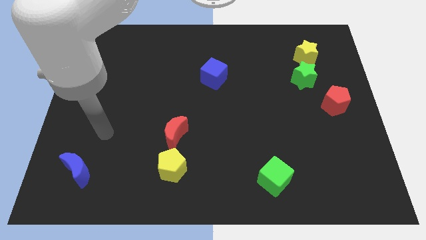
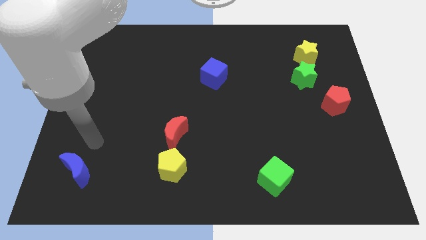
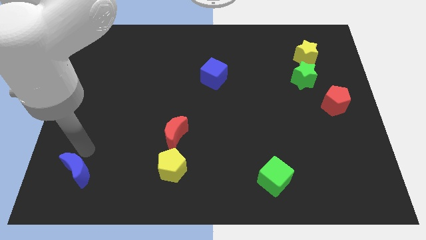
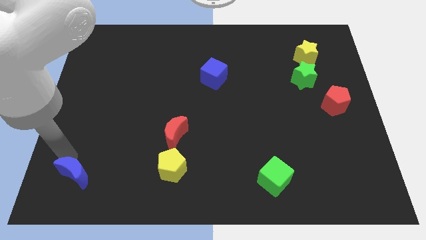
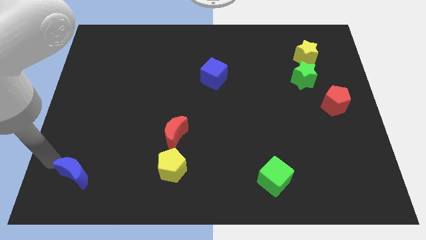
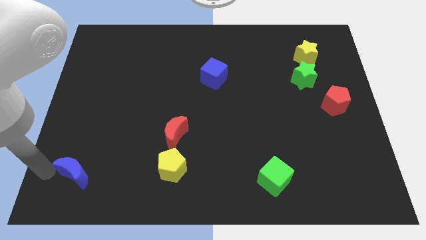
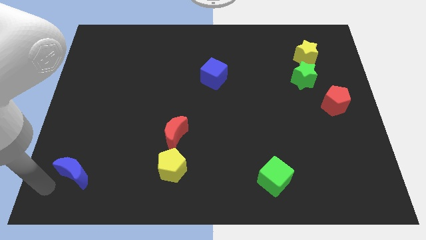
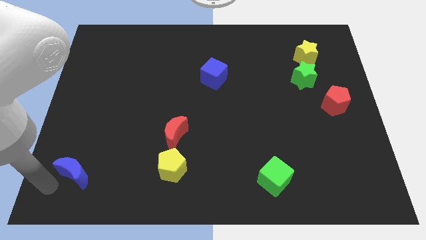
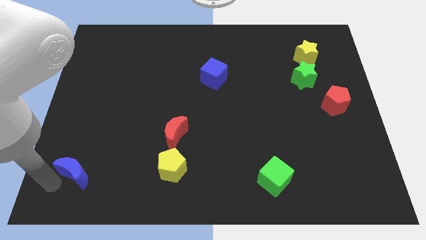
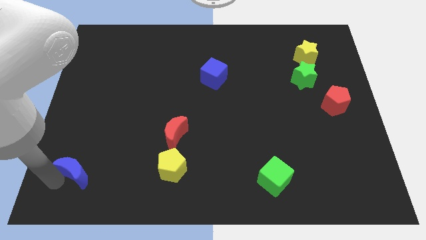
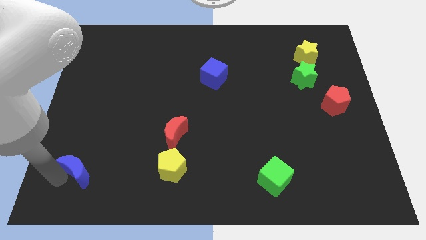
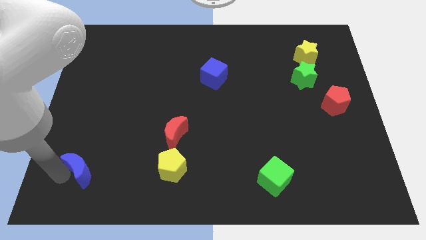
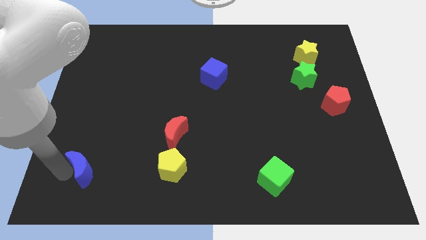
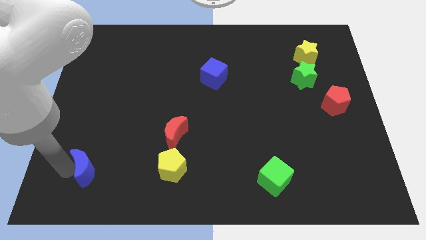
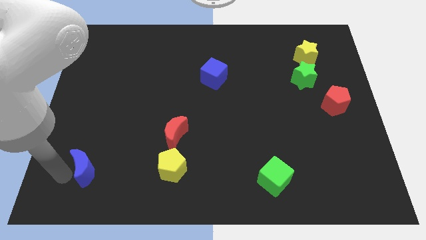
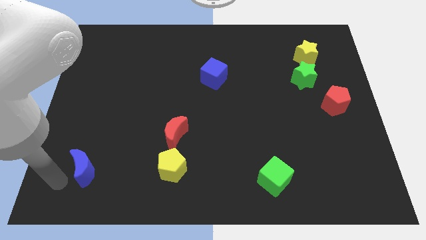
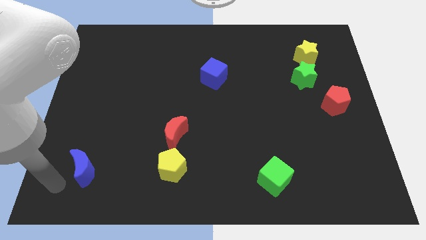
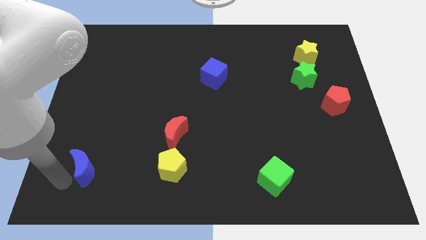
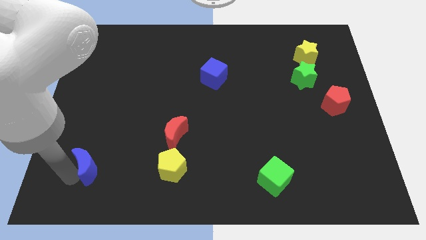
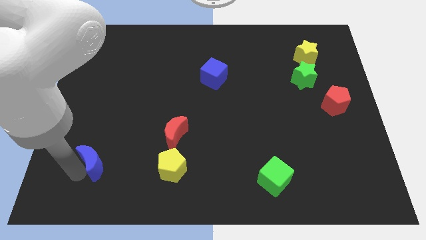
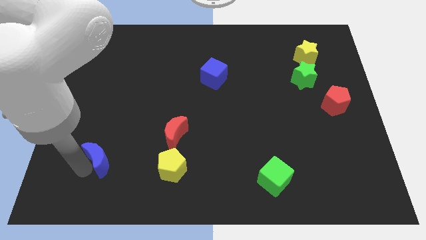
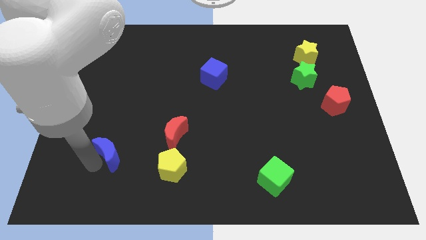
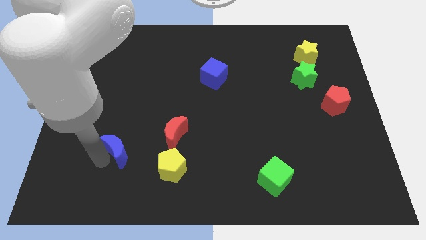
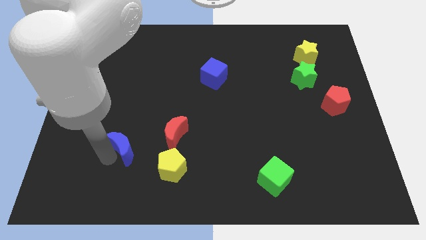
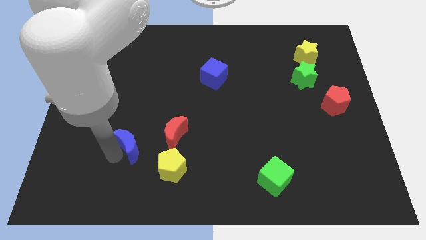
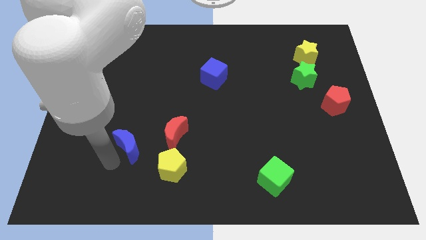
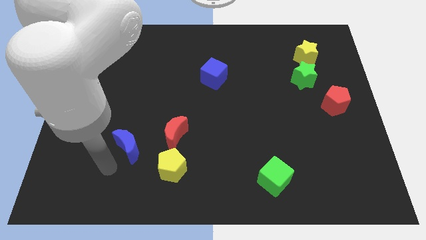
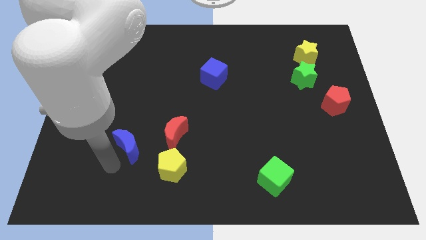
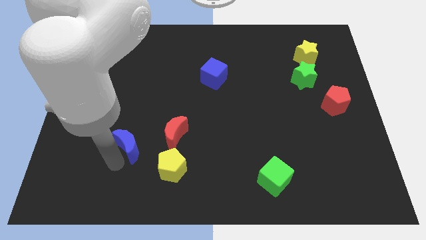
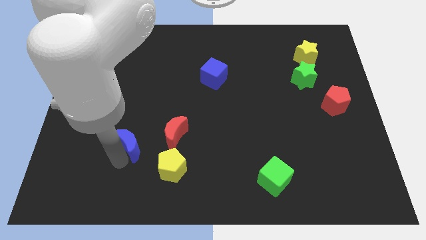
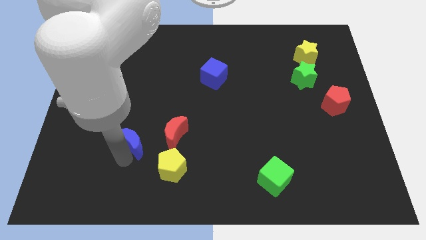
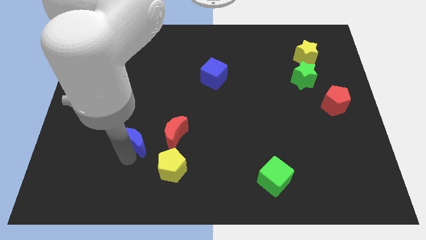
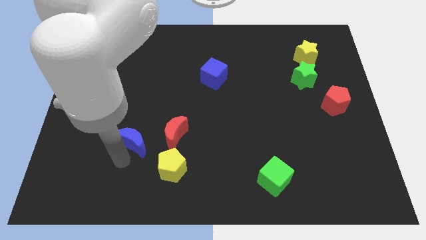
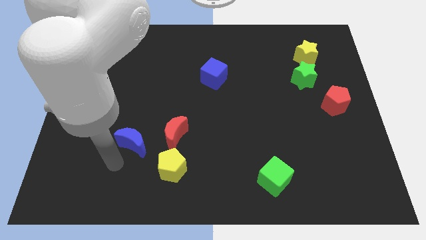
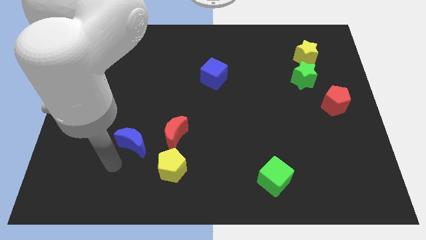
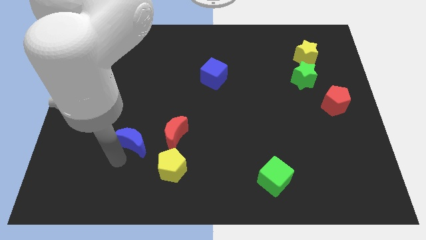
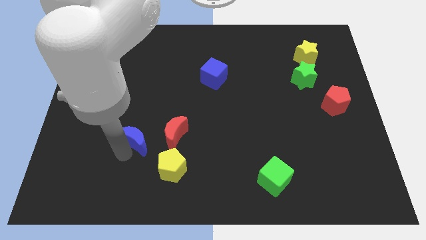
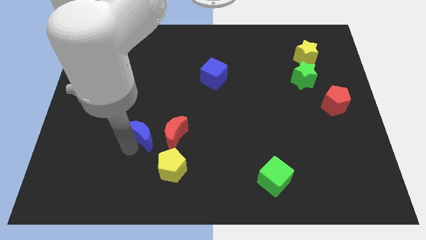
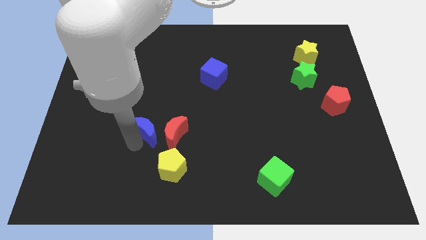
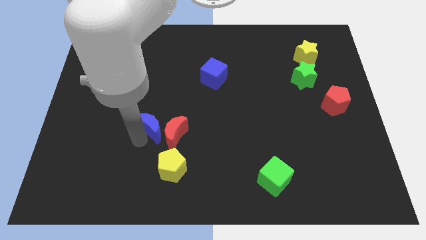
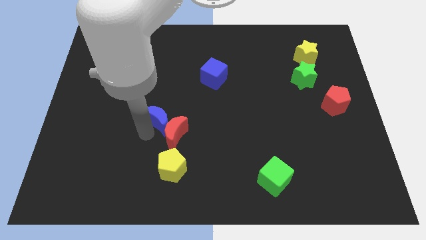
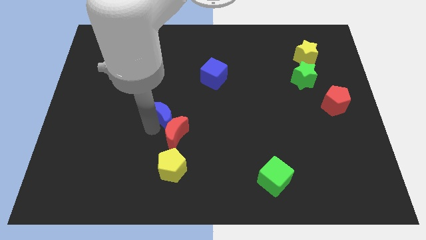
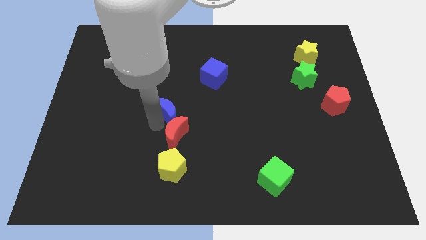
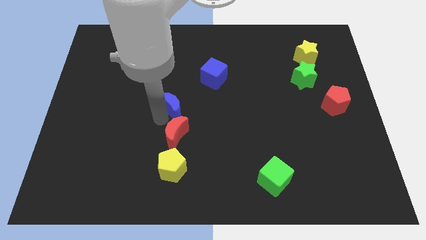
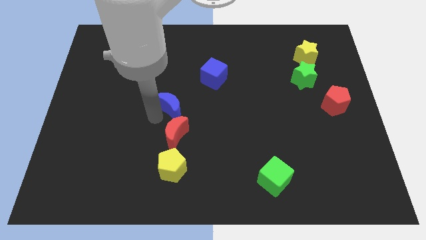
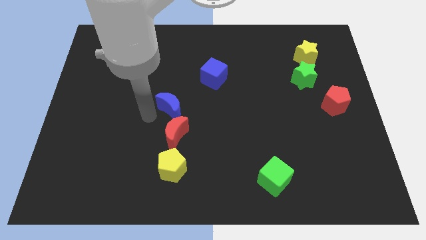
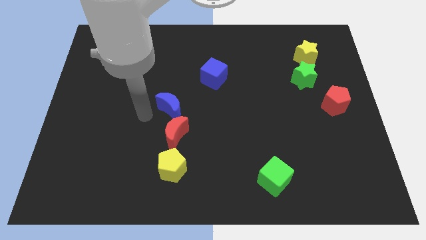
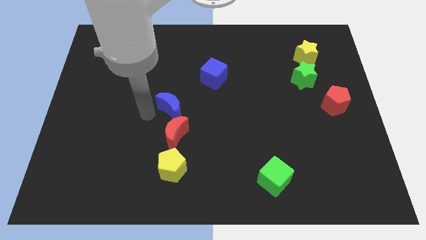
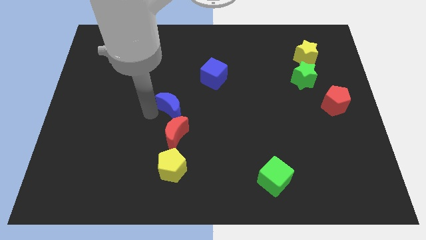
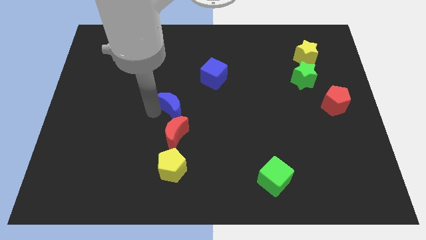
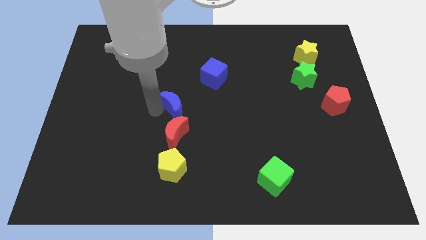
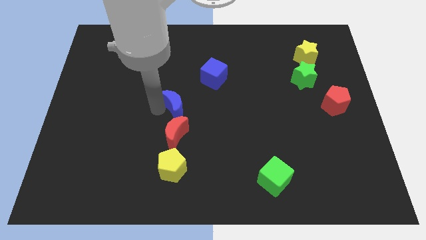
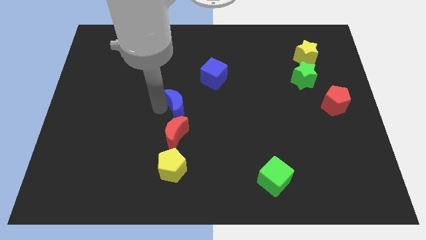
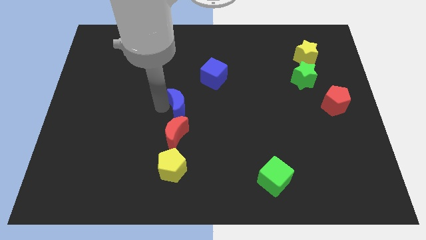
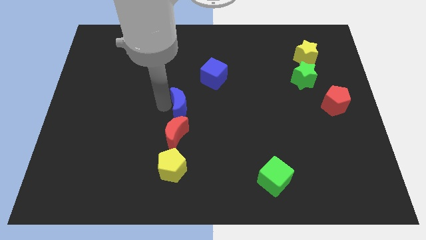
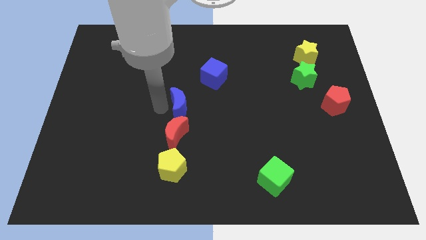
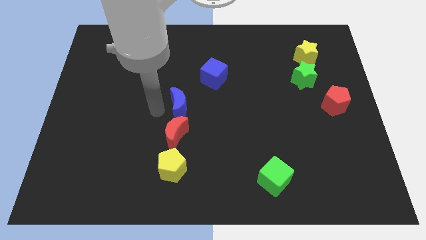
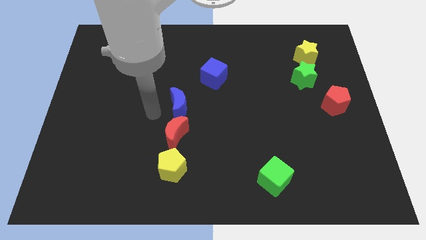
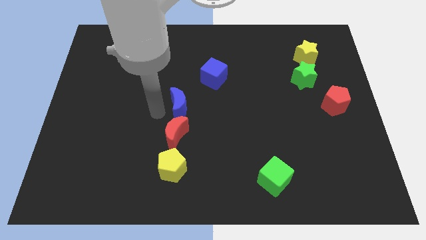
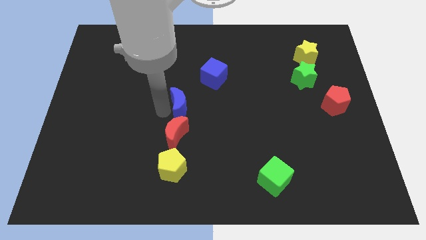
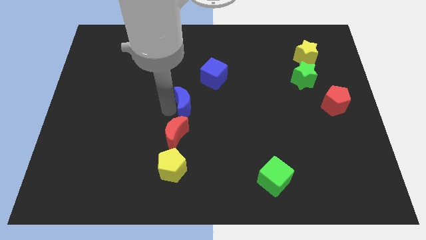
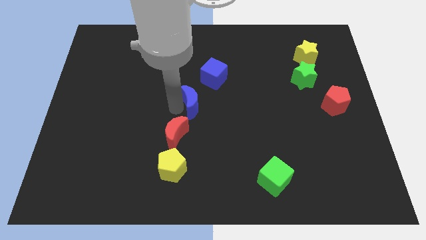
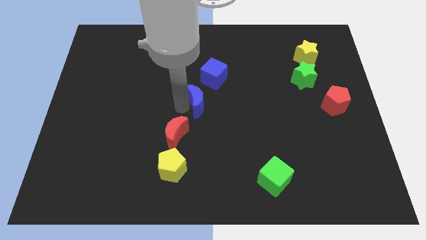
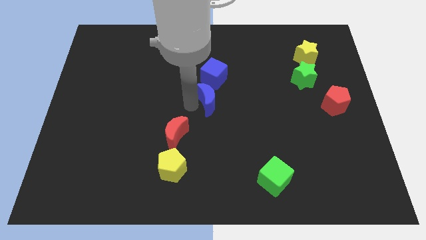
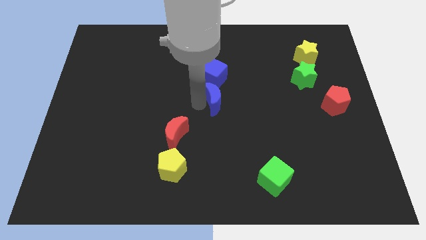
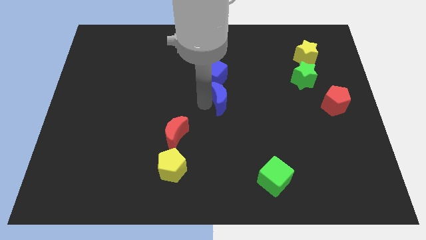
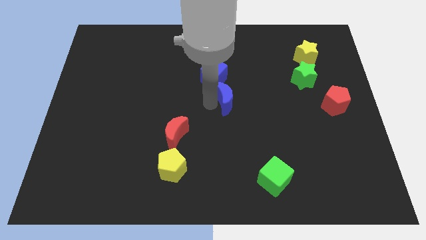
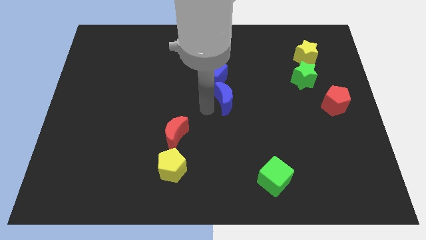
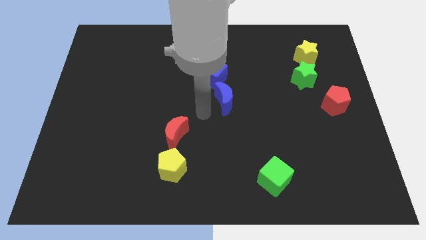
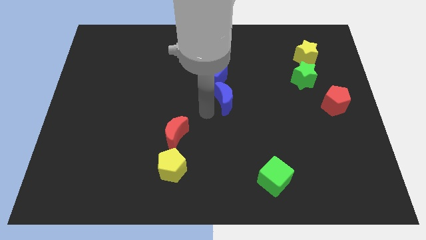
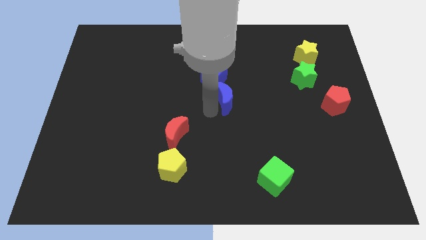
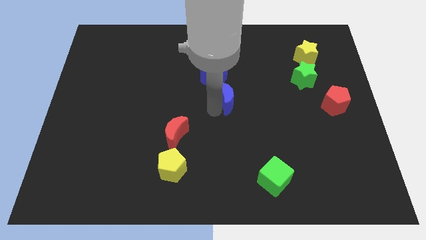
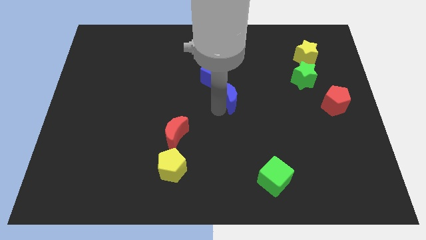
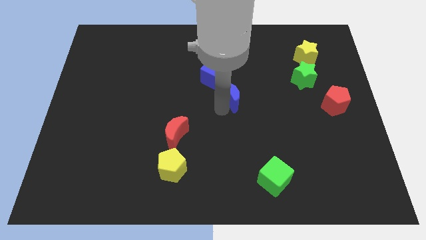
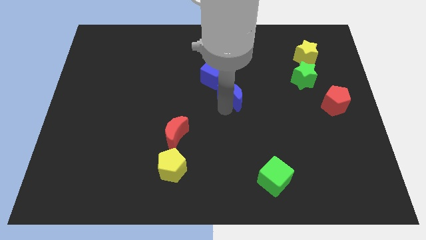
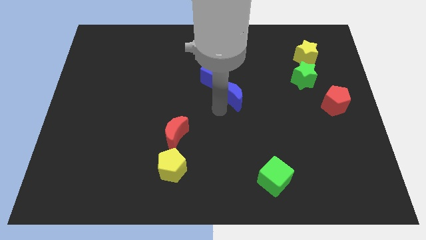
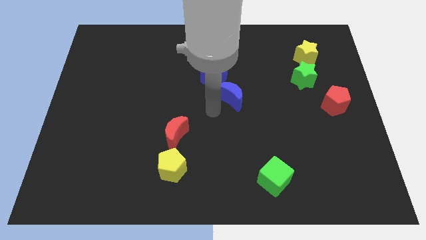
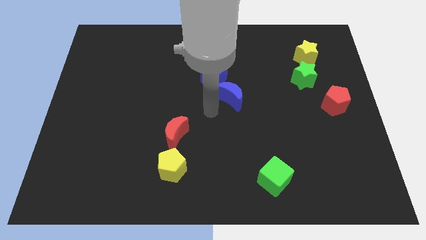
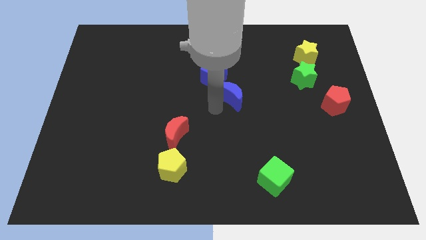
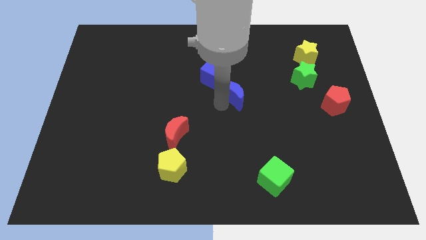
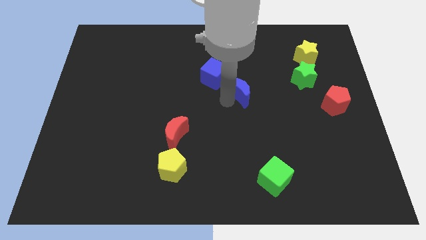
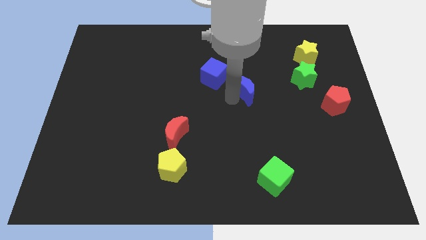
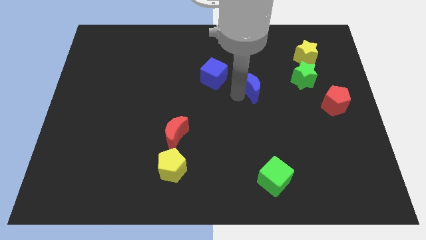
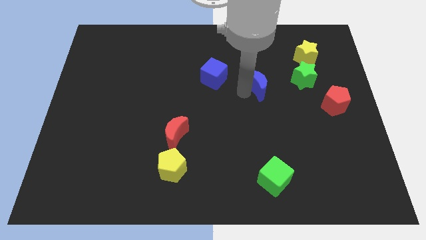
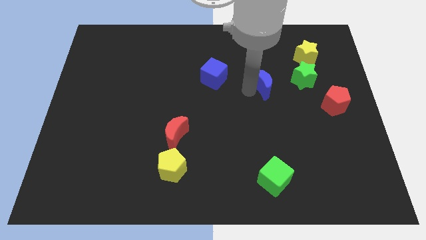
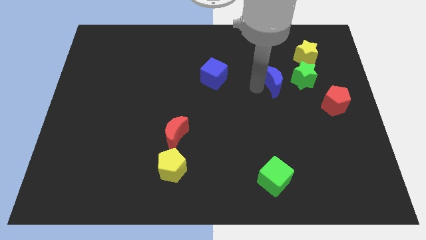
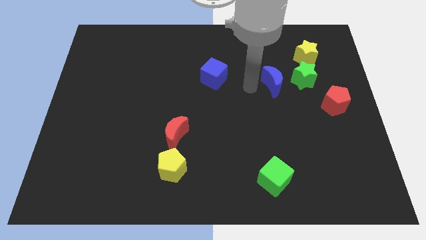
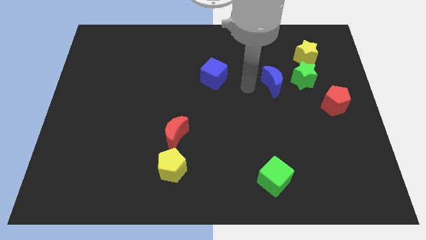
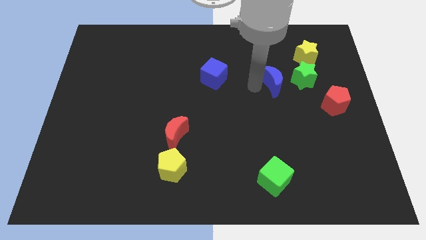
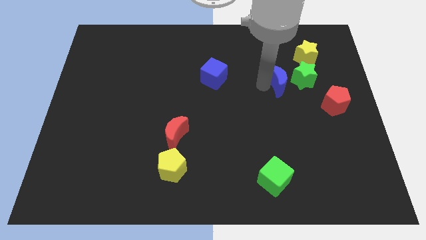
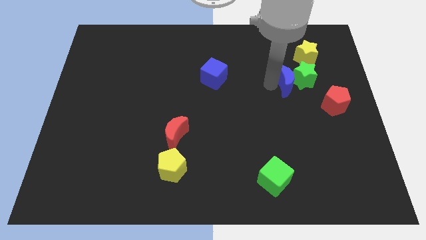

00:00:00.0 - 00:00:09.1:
push the blue moon close to the green star
